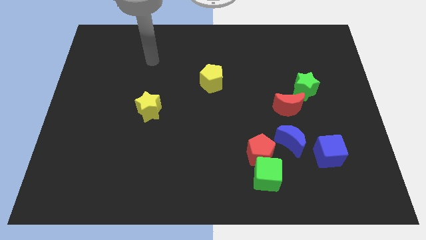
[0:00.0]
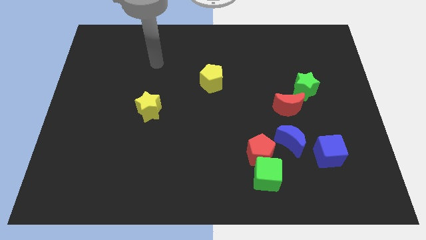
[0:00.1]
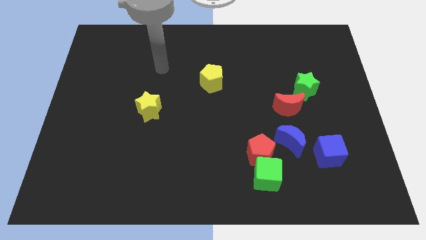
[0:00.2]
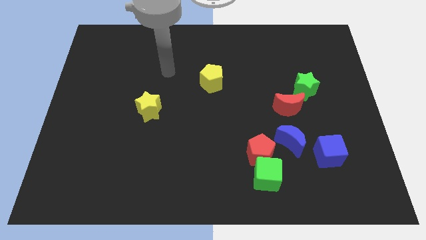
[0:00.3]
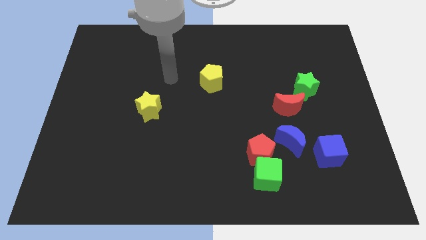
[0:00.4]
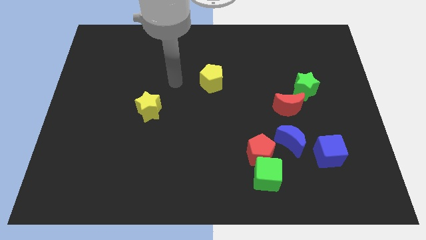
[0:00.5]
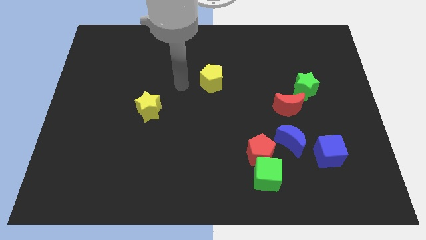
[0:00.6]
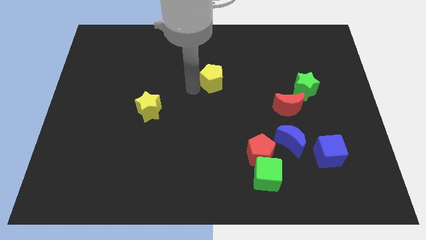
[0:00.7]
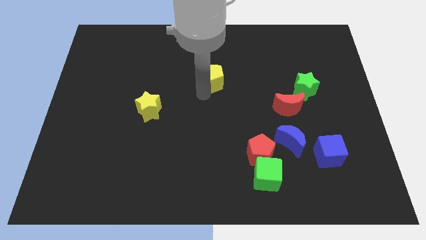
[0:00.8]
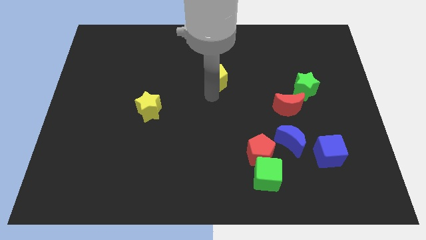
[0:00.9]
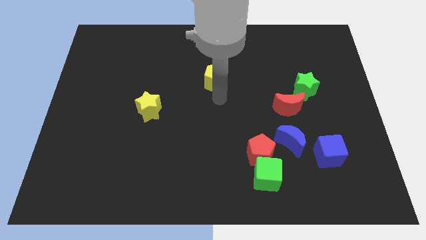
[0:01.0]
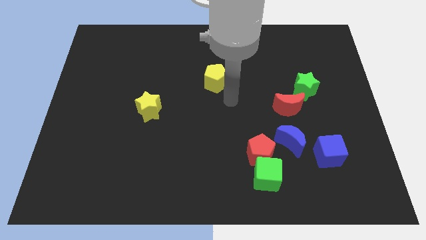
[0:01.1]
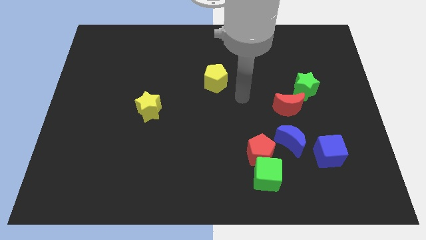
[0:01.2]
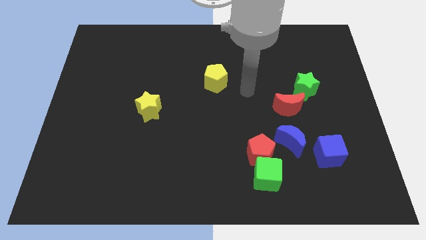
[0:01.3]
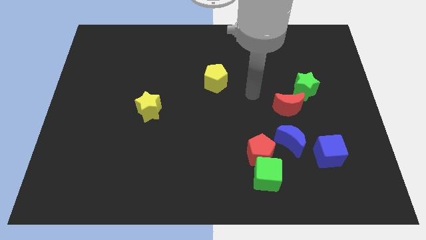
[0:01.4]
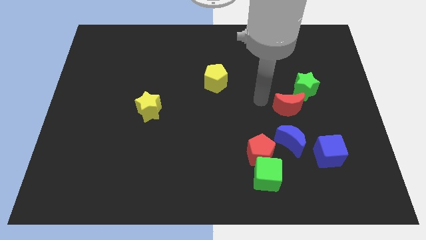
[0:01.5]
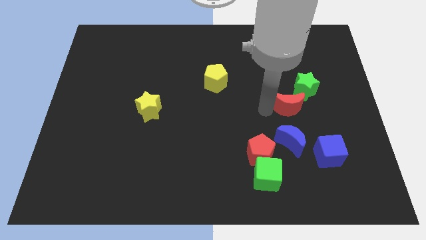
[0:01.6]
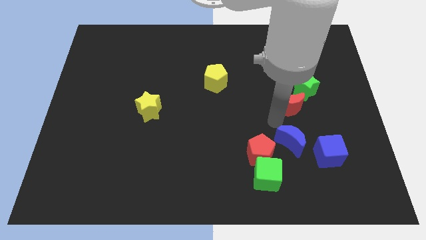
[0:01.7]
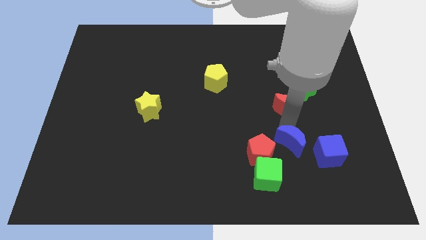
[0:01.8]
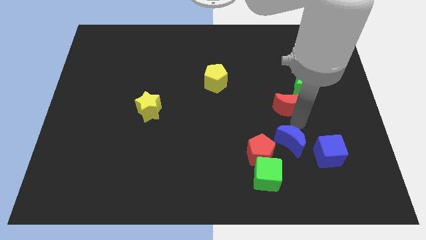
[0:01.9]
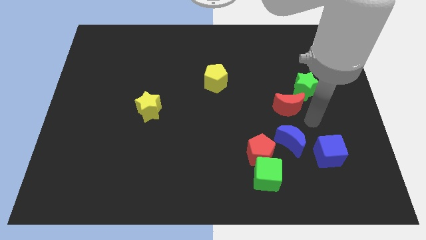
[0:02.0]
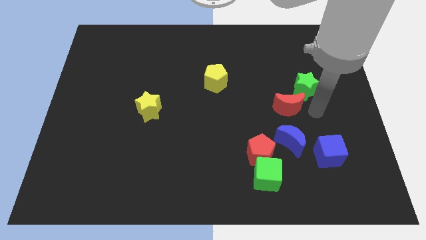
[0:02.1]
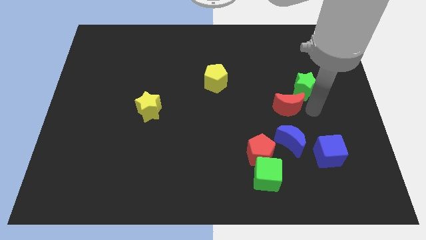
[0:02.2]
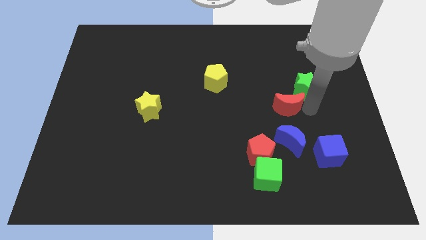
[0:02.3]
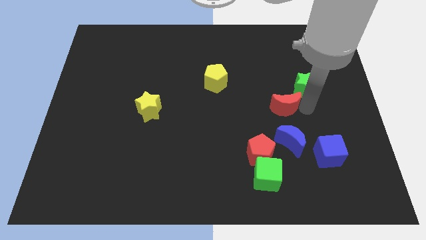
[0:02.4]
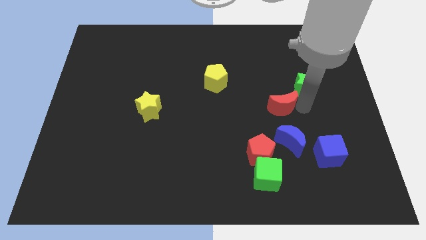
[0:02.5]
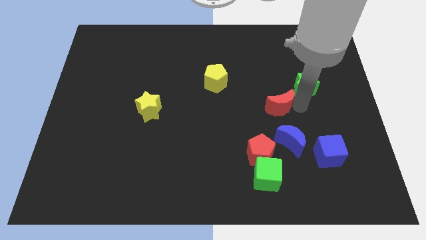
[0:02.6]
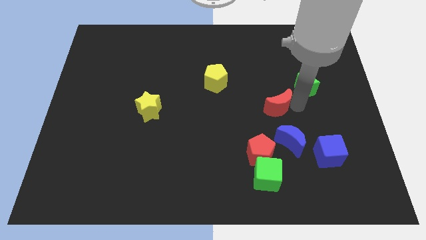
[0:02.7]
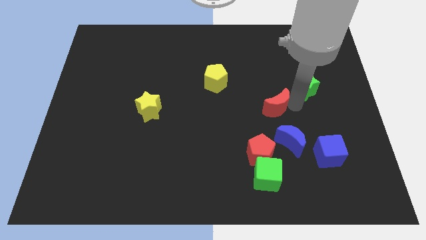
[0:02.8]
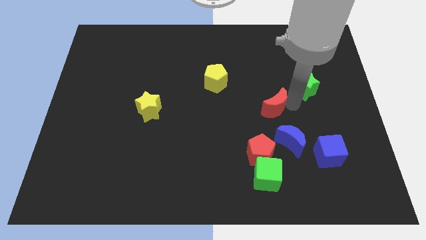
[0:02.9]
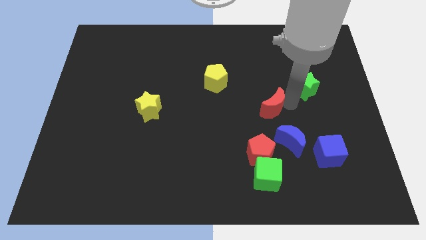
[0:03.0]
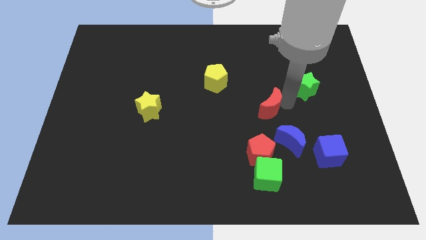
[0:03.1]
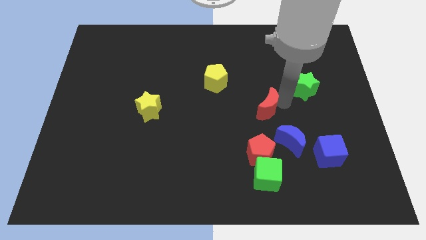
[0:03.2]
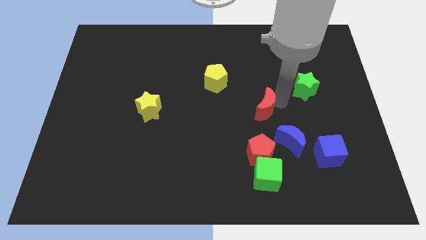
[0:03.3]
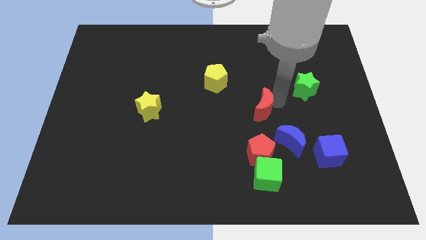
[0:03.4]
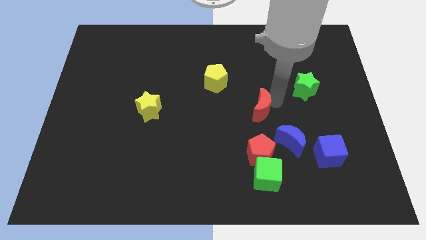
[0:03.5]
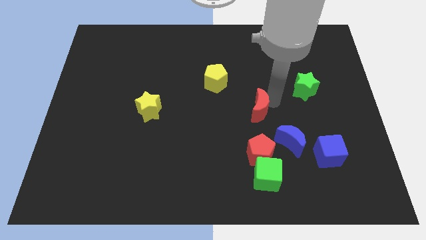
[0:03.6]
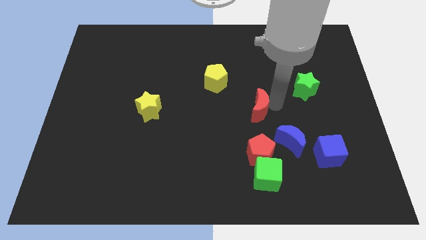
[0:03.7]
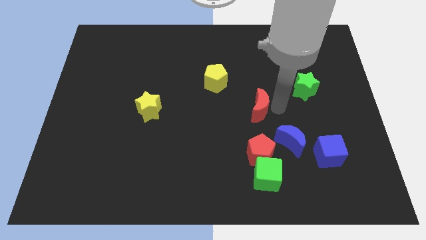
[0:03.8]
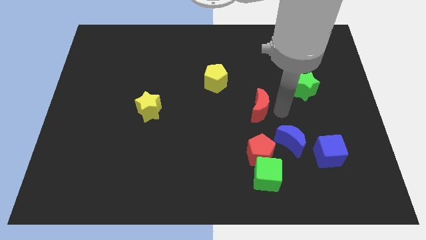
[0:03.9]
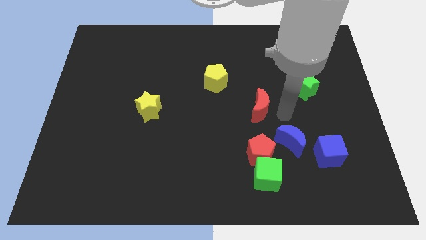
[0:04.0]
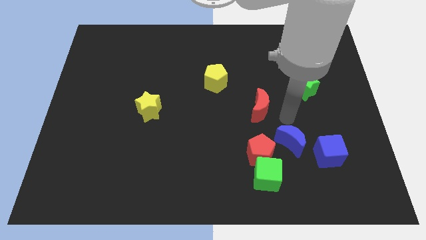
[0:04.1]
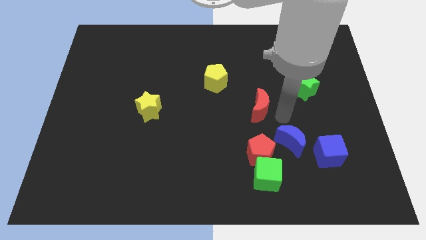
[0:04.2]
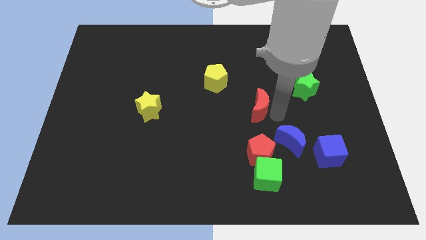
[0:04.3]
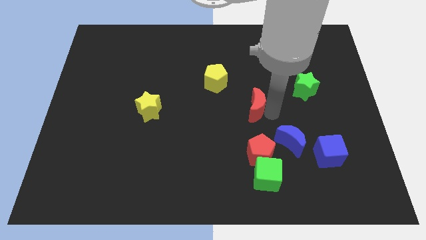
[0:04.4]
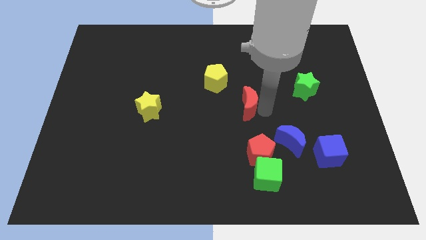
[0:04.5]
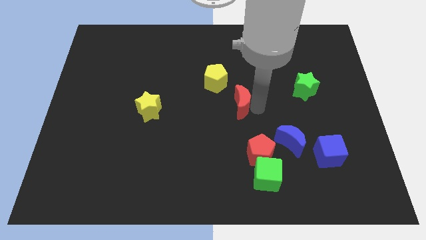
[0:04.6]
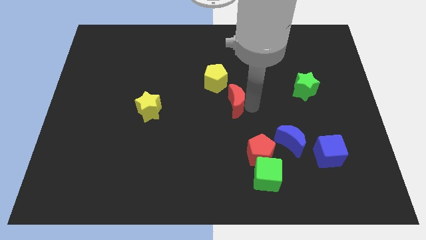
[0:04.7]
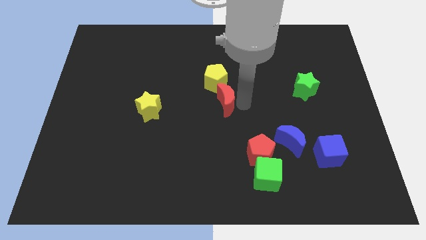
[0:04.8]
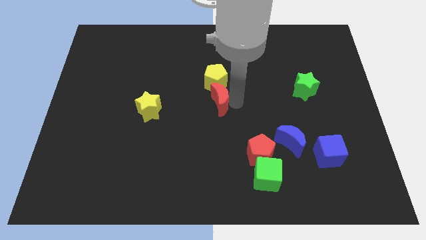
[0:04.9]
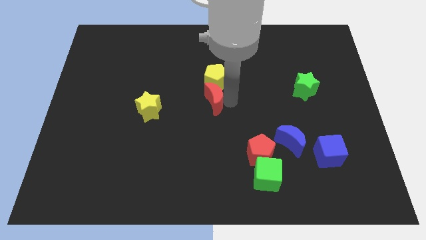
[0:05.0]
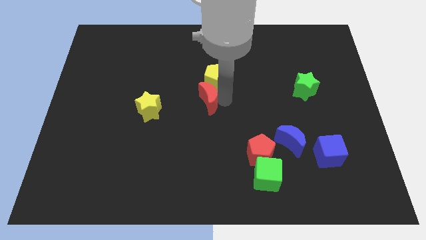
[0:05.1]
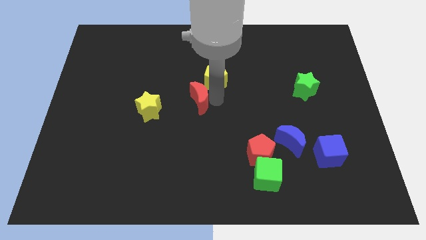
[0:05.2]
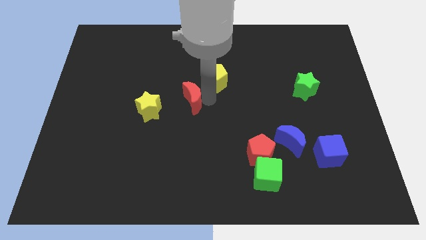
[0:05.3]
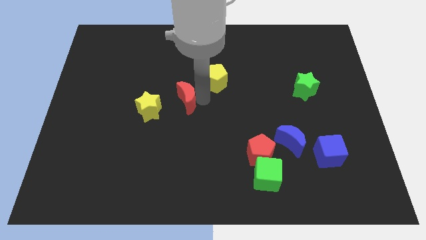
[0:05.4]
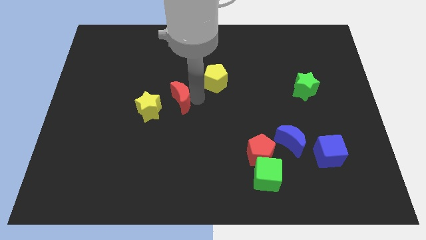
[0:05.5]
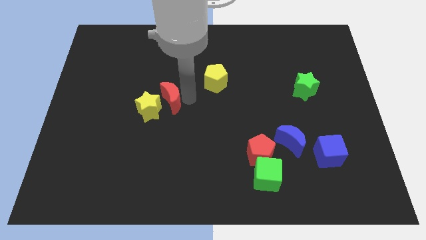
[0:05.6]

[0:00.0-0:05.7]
slide the red moon towards the yellow star

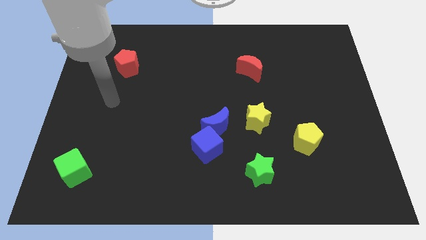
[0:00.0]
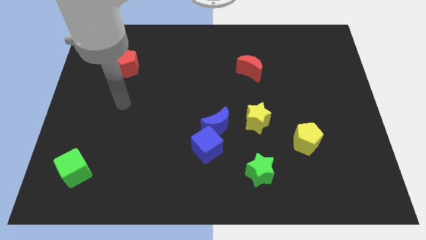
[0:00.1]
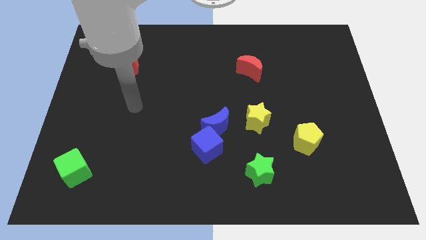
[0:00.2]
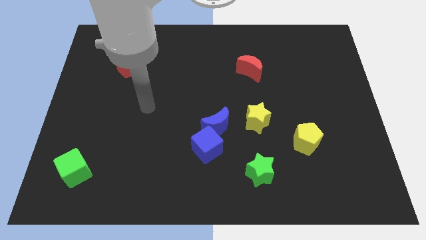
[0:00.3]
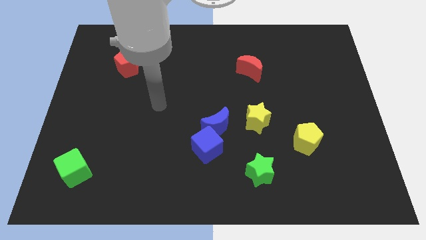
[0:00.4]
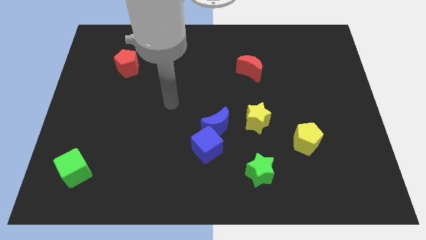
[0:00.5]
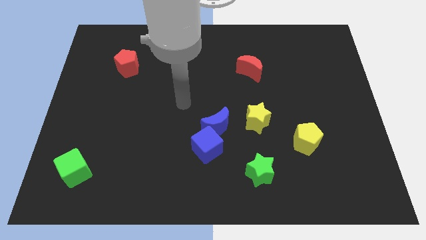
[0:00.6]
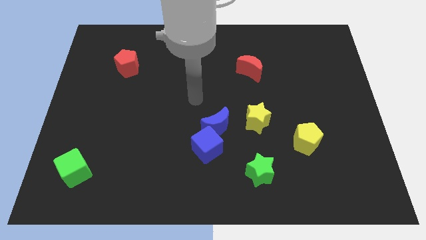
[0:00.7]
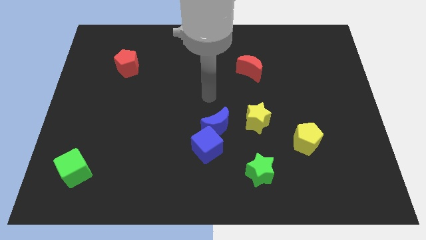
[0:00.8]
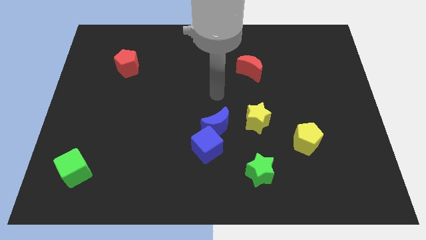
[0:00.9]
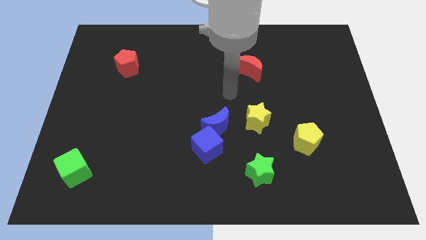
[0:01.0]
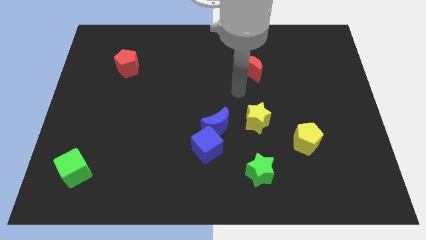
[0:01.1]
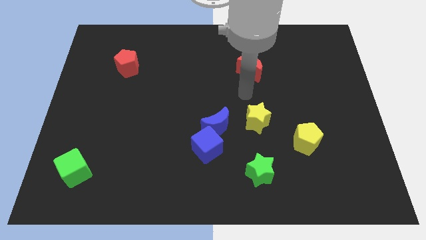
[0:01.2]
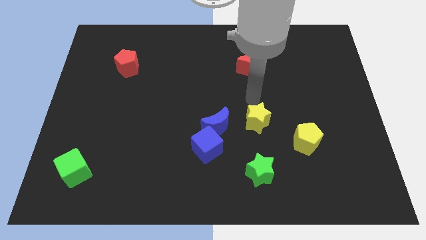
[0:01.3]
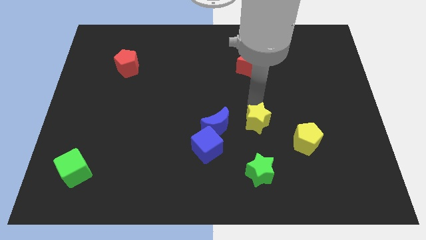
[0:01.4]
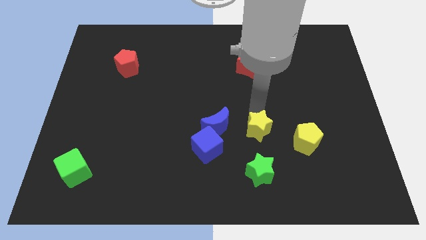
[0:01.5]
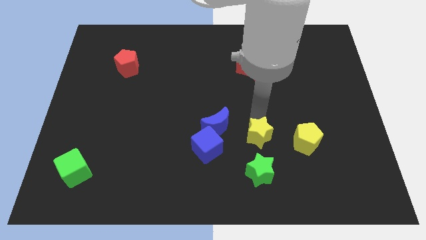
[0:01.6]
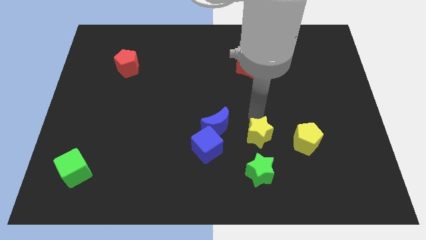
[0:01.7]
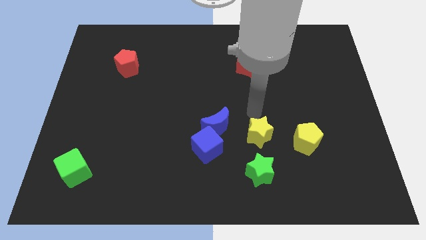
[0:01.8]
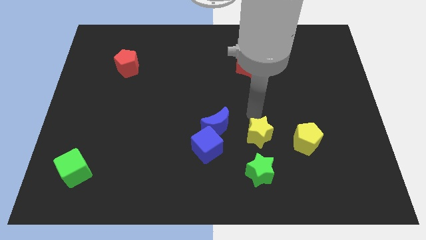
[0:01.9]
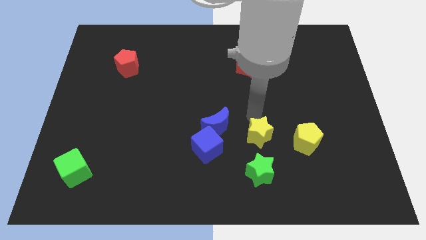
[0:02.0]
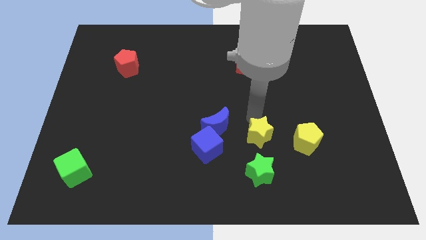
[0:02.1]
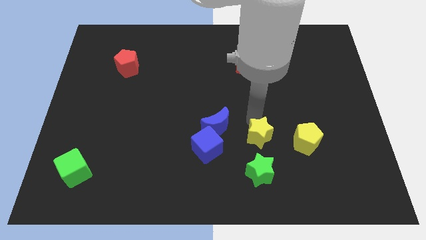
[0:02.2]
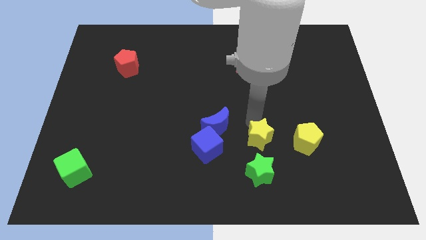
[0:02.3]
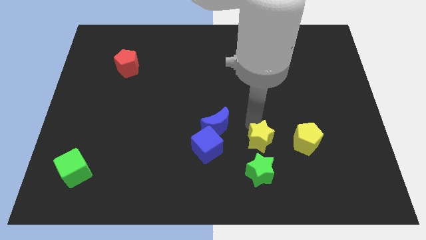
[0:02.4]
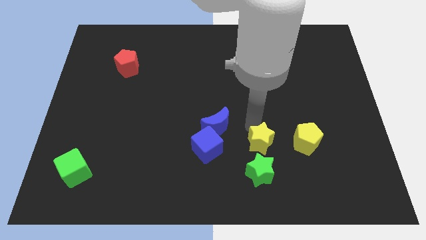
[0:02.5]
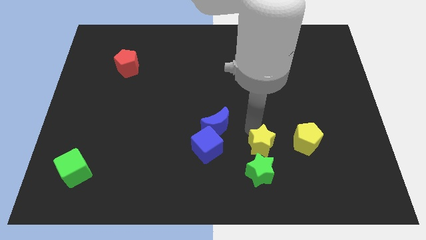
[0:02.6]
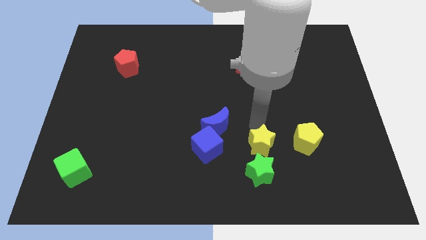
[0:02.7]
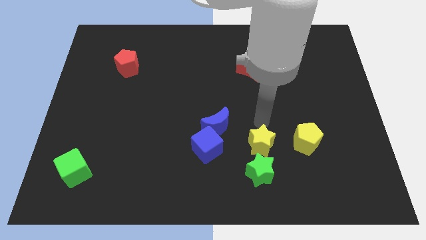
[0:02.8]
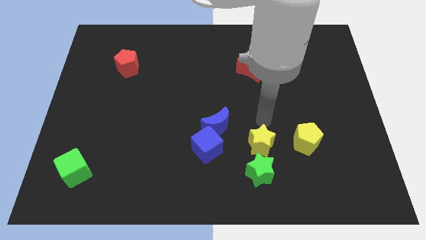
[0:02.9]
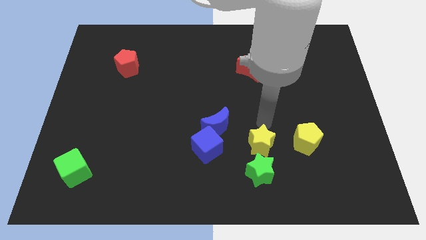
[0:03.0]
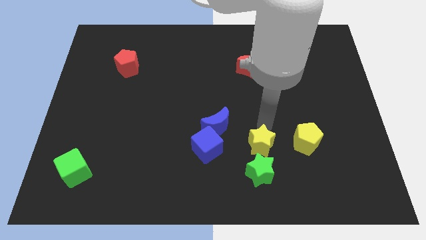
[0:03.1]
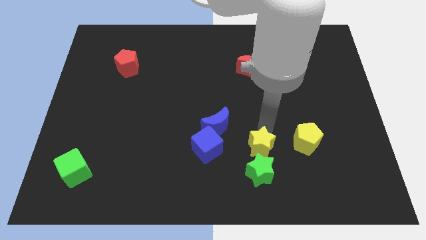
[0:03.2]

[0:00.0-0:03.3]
put the yellow star to the green star
